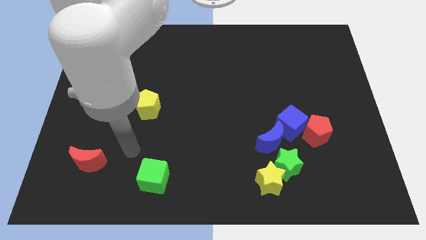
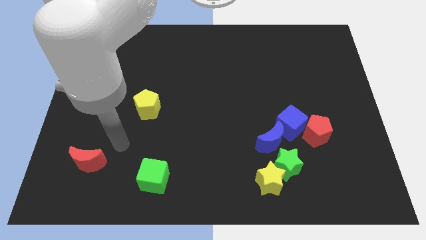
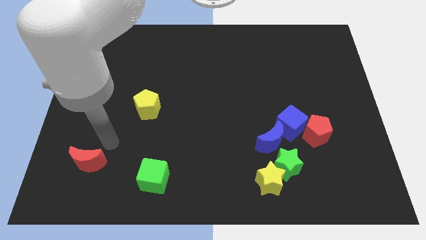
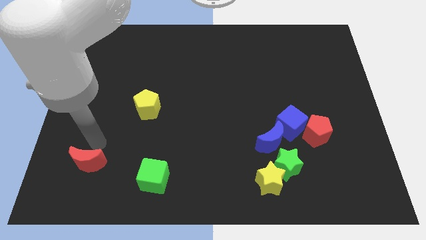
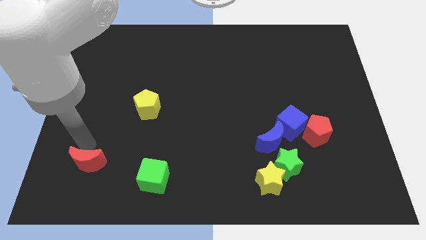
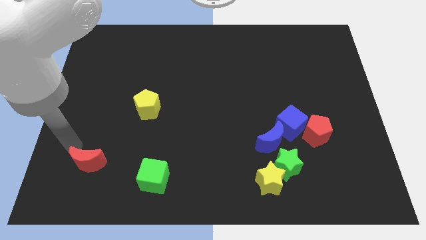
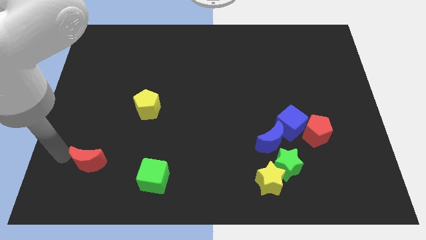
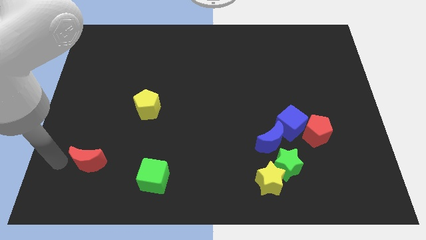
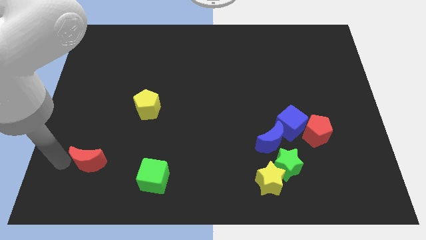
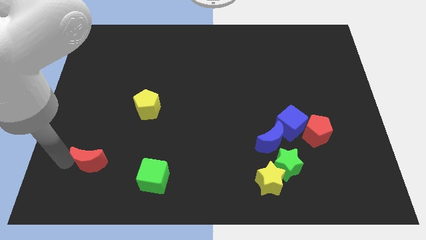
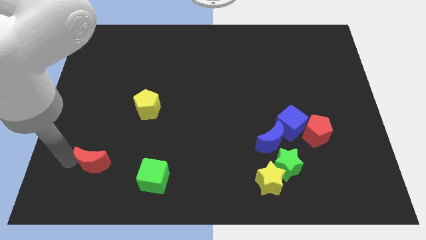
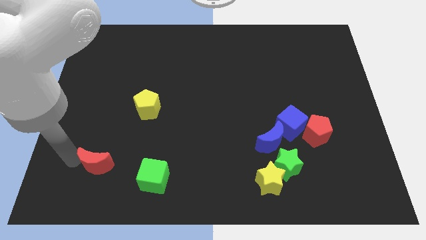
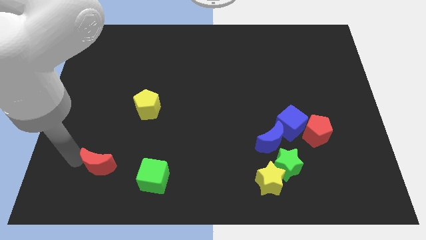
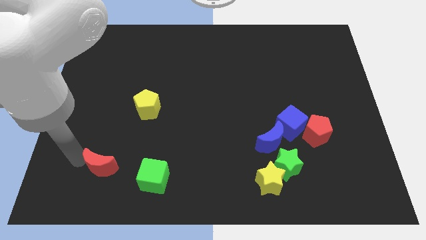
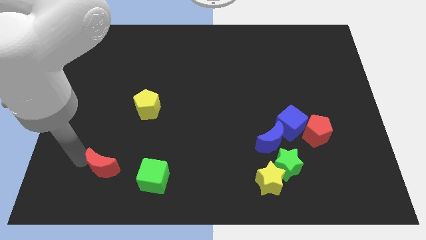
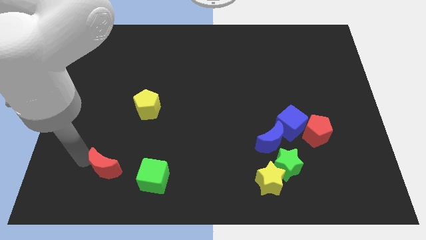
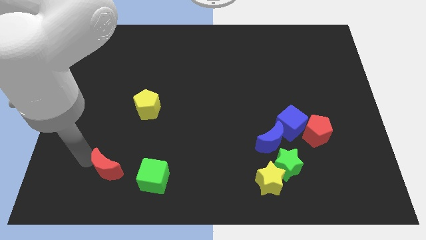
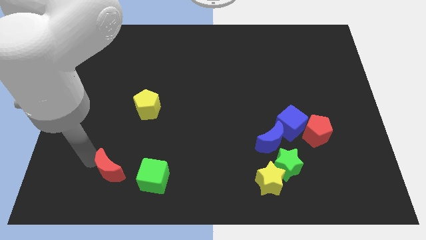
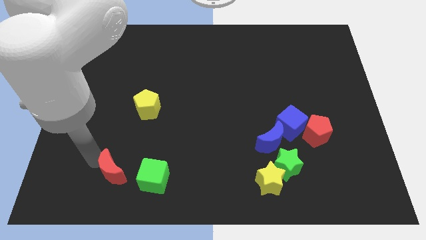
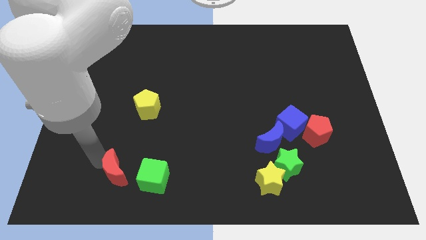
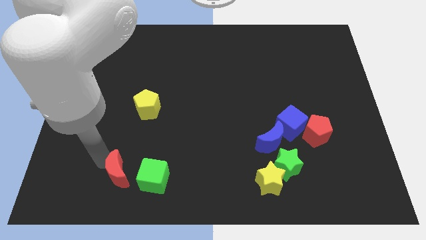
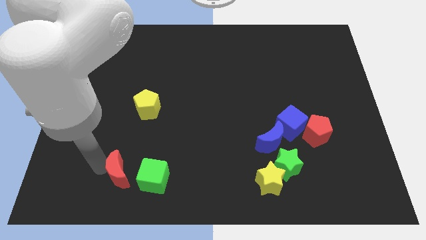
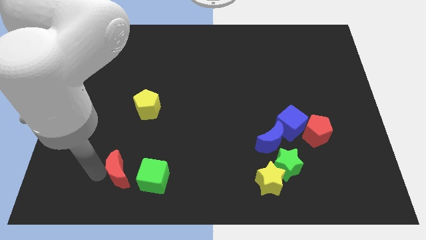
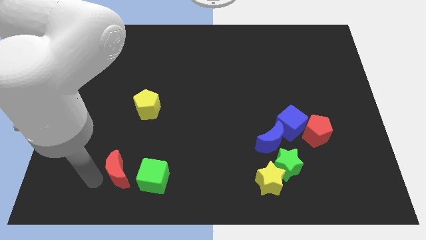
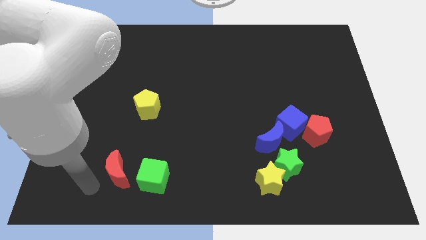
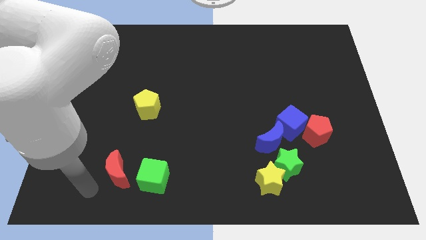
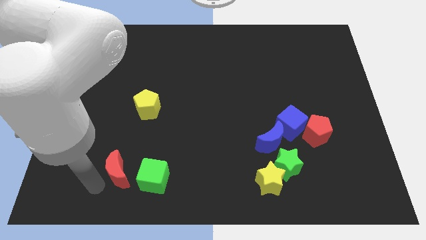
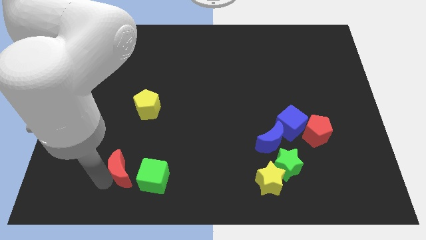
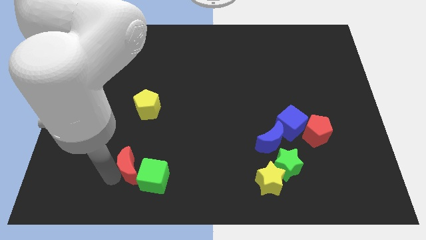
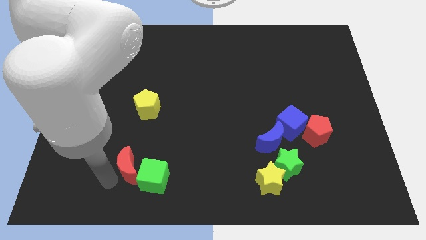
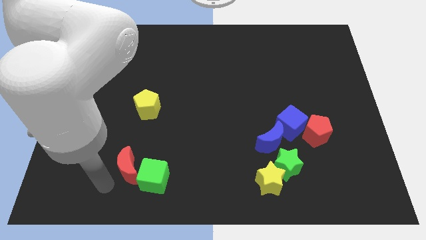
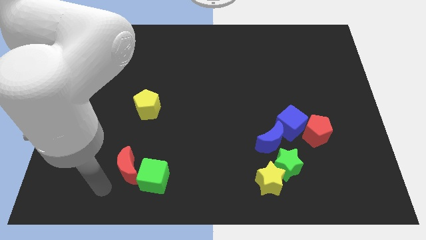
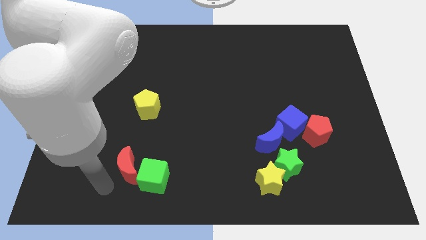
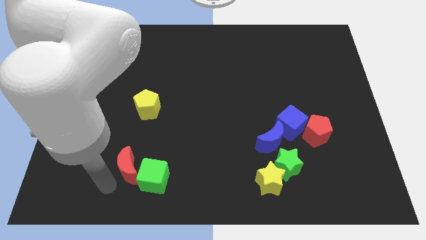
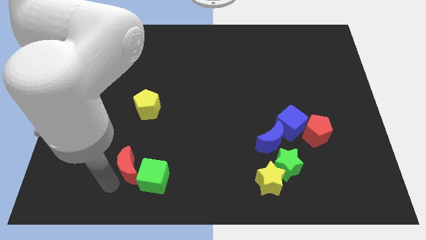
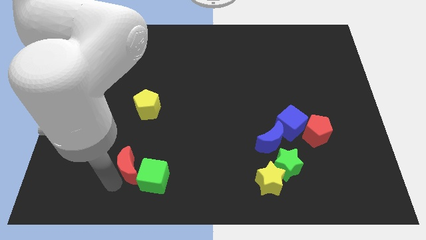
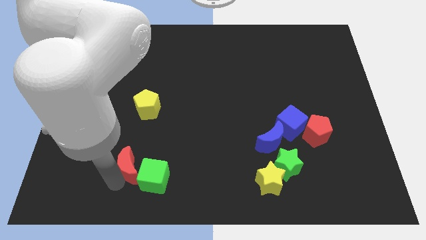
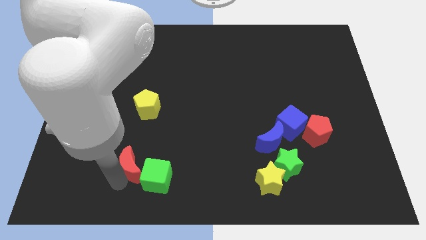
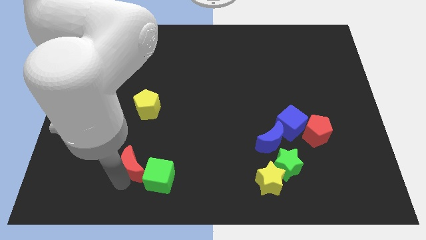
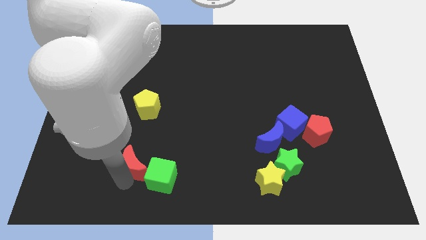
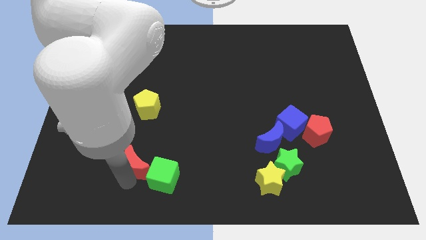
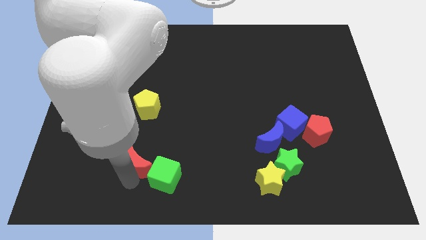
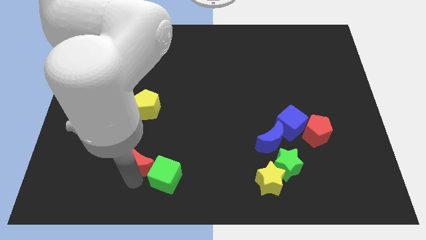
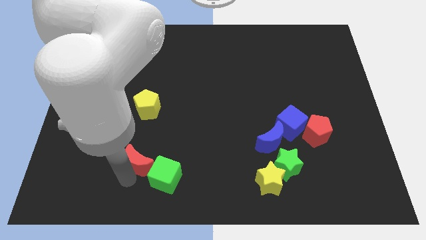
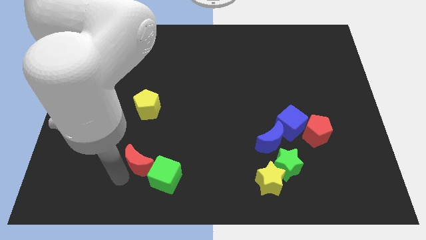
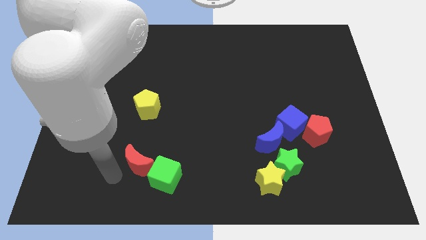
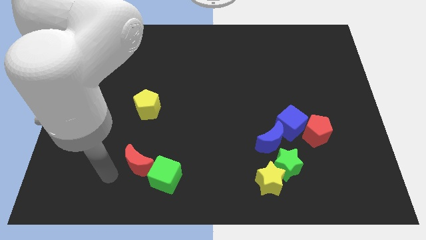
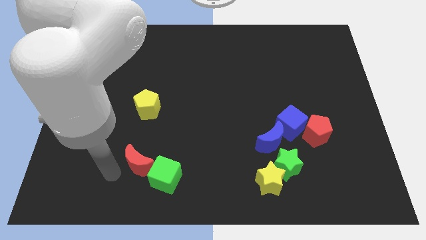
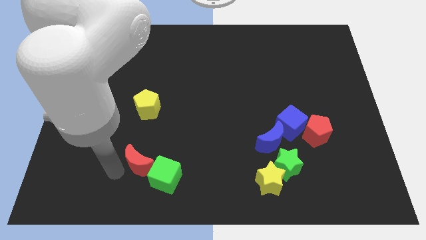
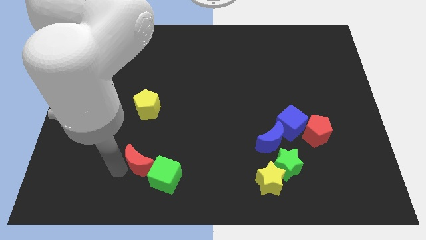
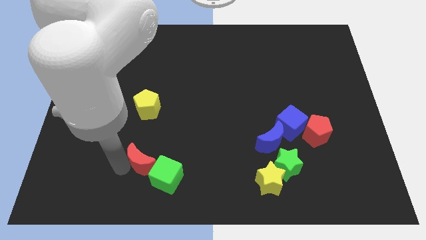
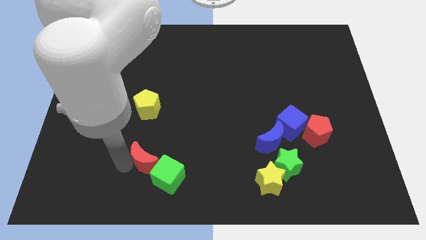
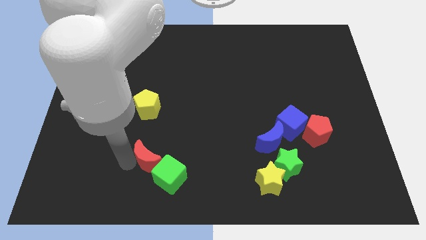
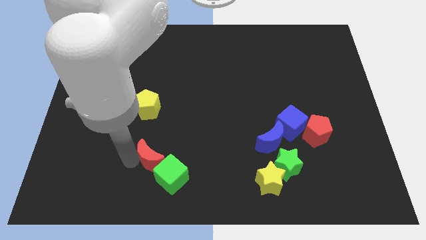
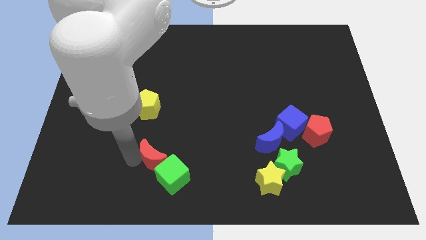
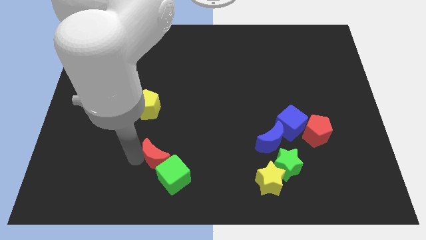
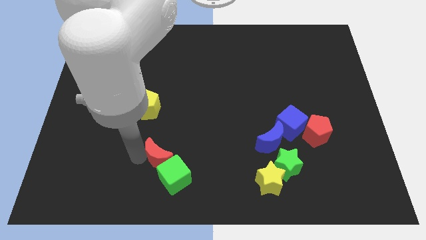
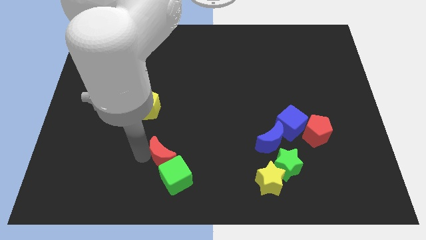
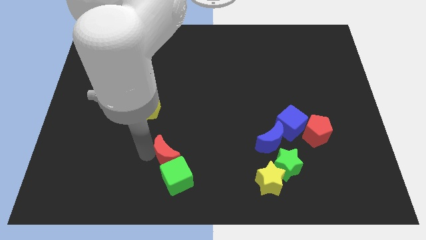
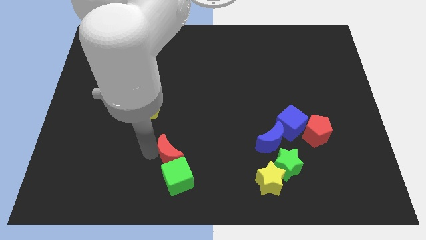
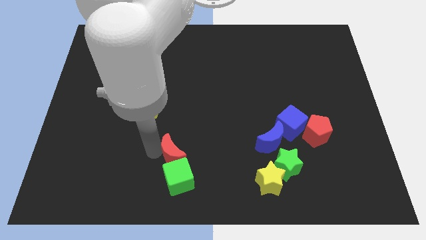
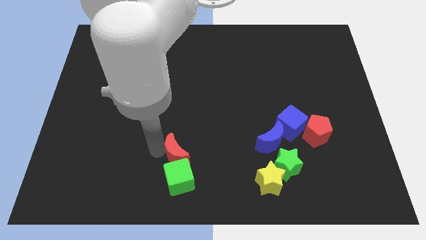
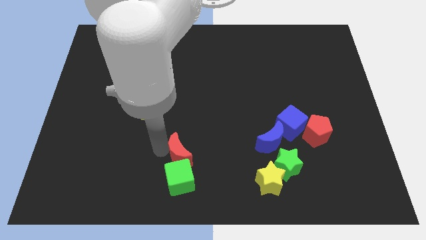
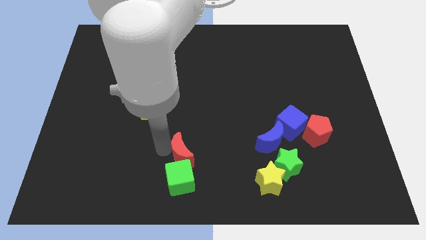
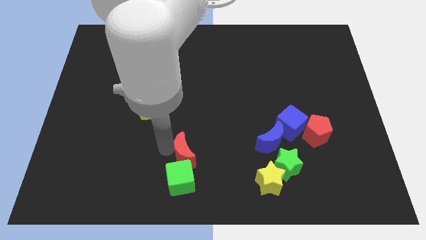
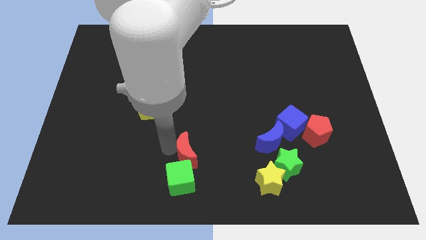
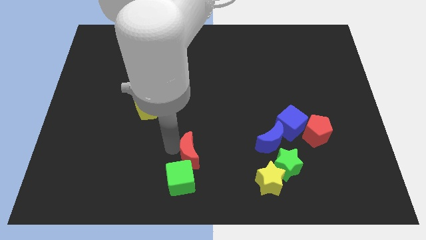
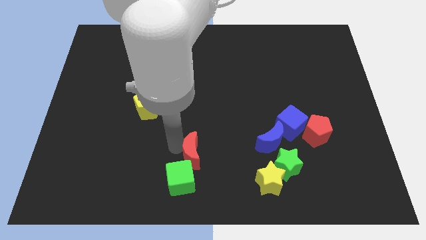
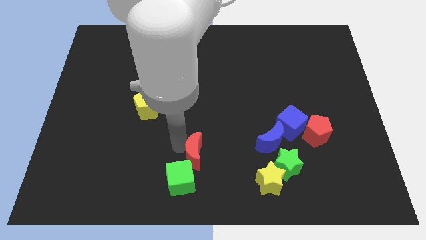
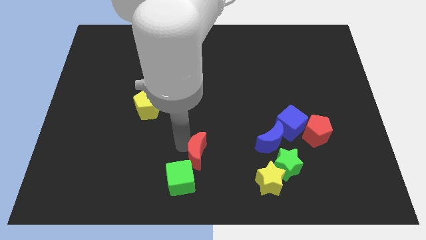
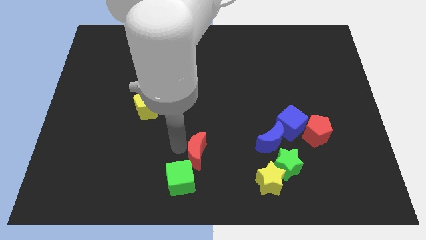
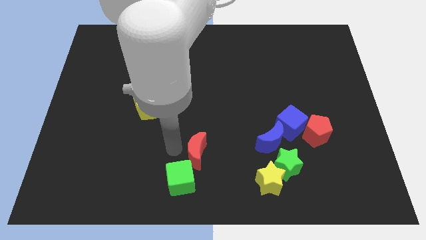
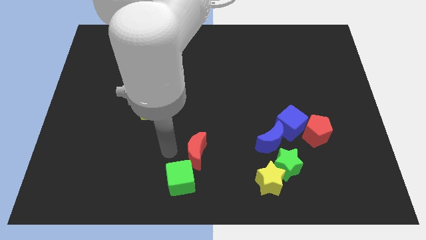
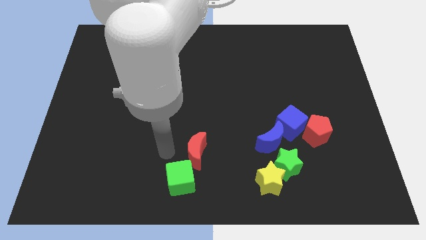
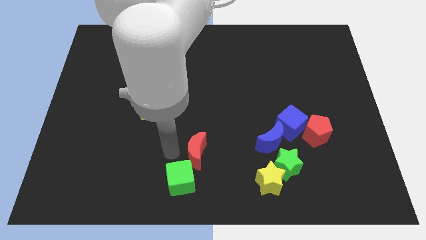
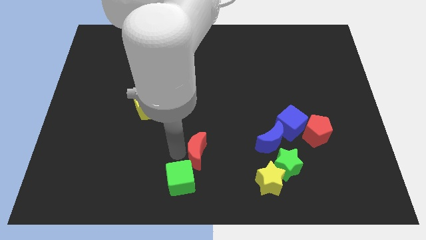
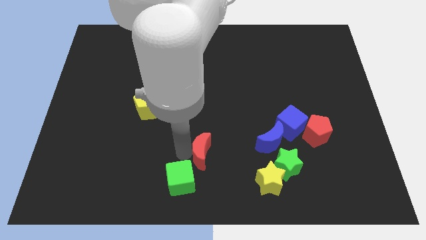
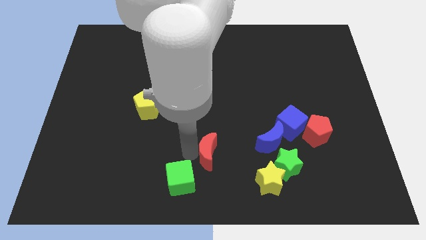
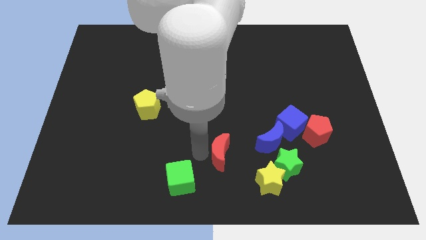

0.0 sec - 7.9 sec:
push the red moon diagonally up and to the left of the yellow star
